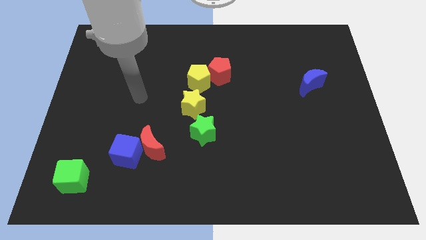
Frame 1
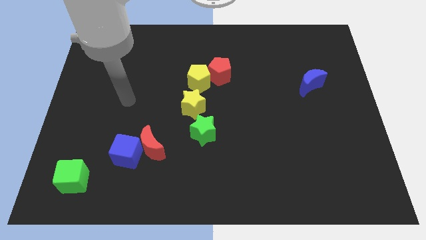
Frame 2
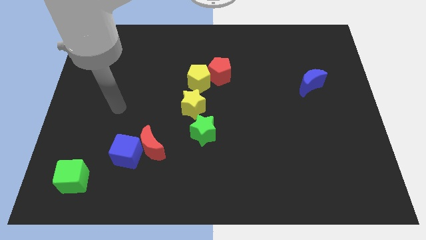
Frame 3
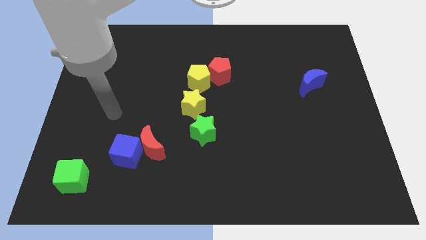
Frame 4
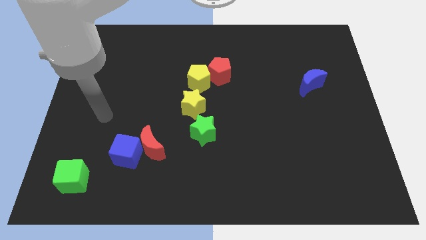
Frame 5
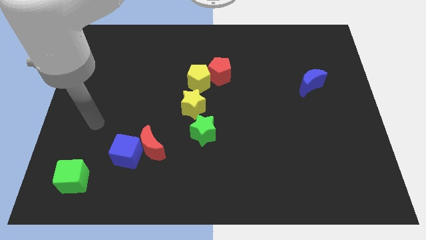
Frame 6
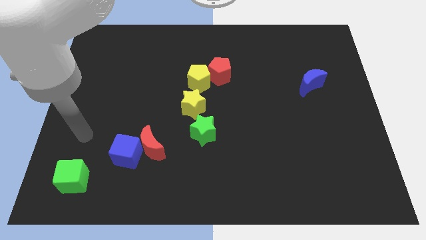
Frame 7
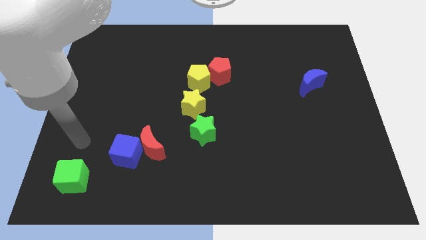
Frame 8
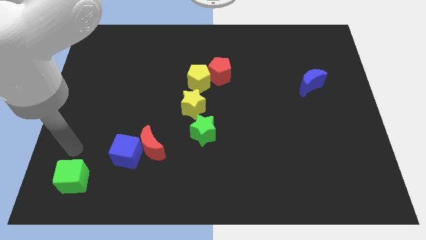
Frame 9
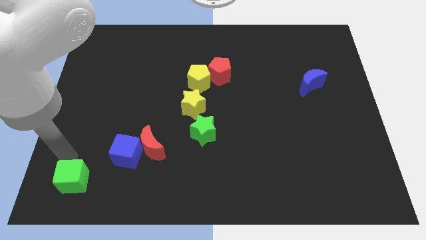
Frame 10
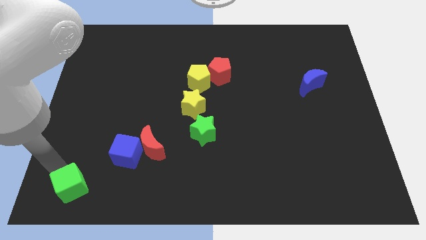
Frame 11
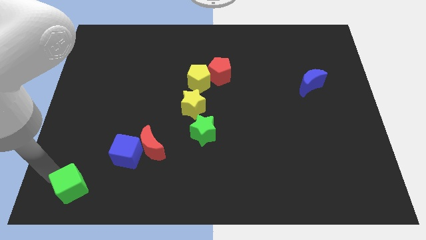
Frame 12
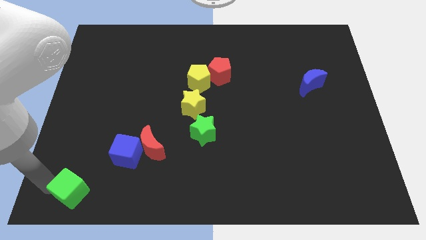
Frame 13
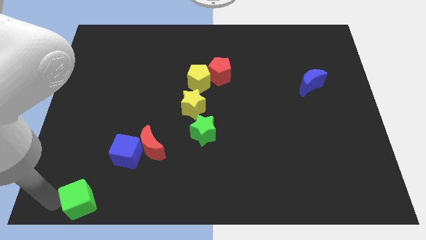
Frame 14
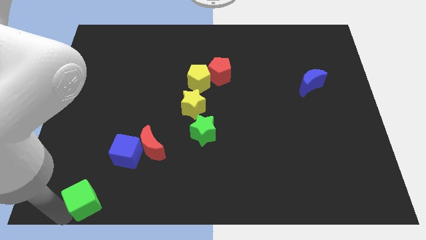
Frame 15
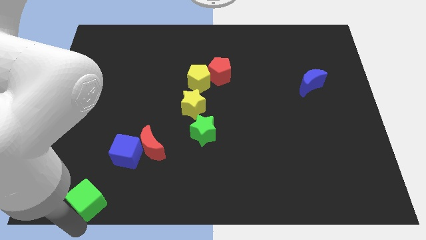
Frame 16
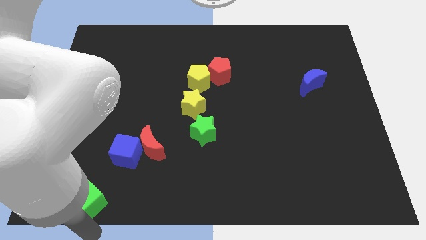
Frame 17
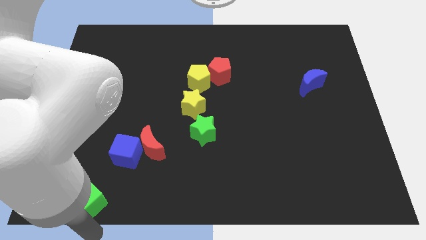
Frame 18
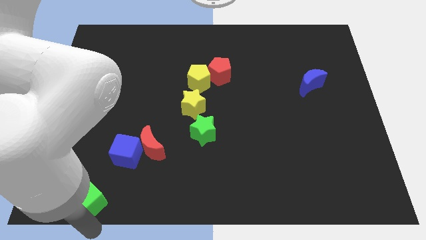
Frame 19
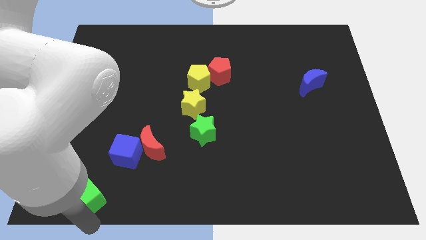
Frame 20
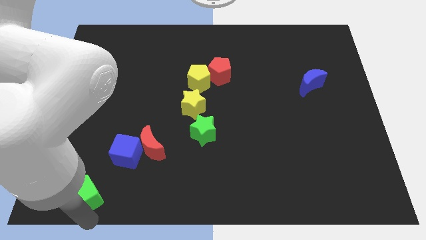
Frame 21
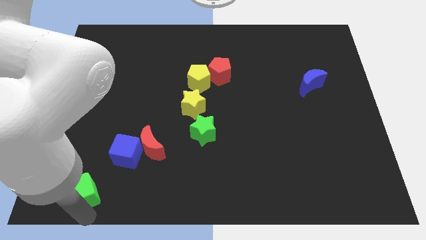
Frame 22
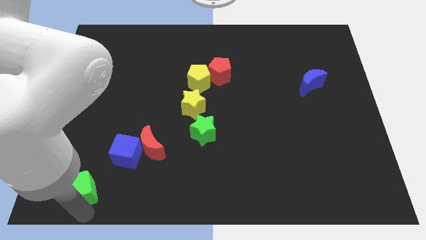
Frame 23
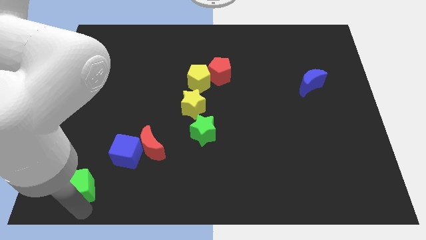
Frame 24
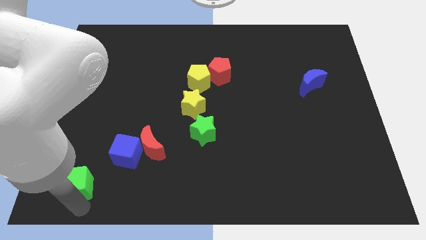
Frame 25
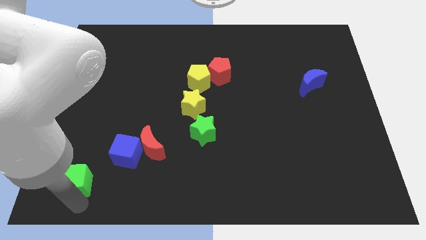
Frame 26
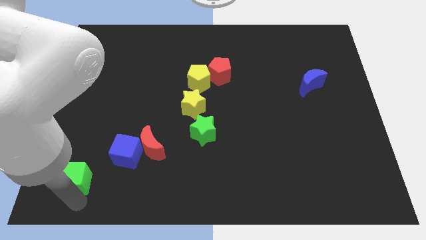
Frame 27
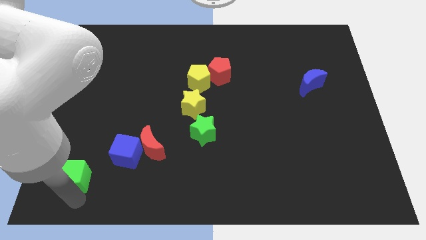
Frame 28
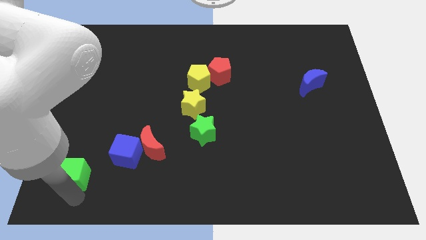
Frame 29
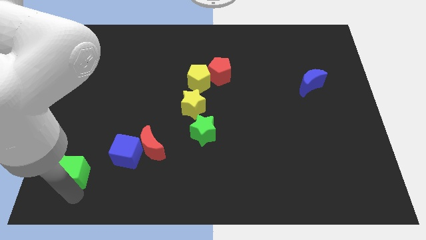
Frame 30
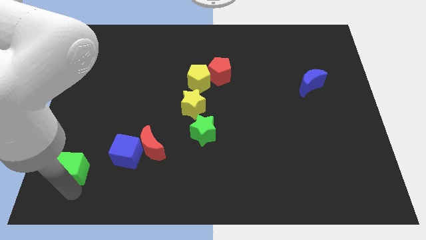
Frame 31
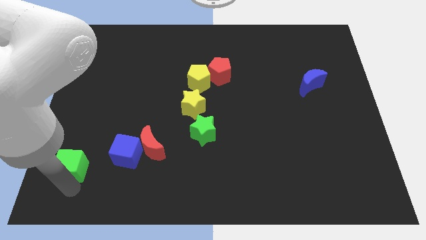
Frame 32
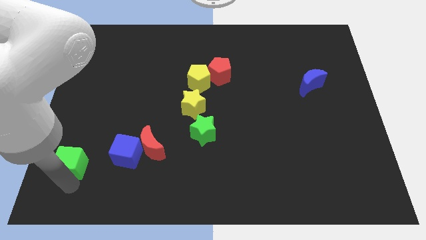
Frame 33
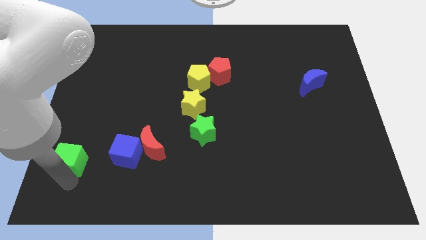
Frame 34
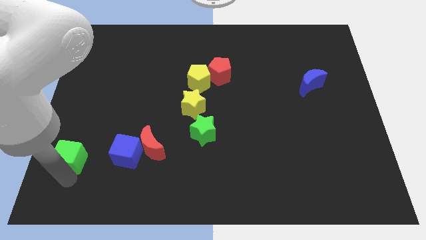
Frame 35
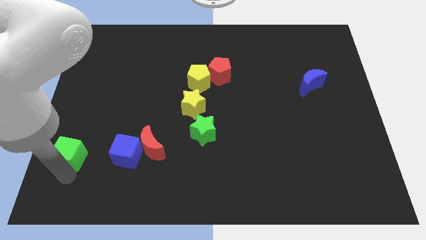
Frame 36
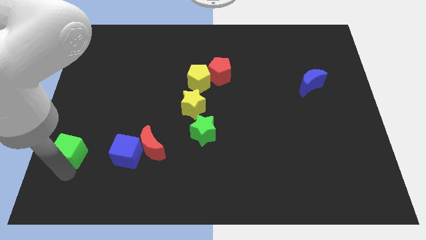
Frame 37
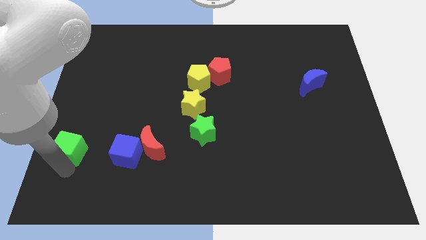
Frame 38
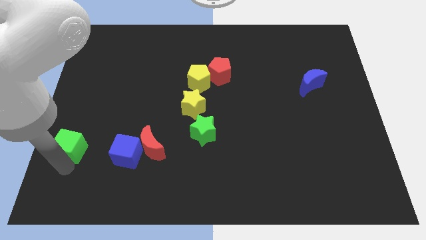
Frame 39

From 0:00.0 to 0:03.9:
slide the green cube upwards somewhat

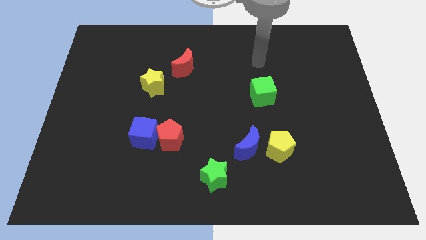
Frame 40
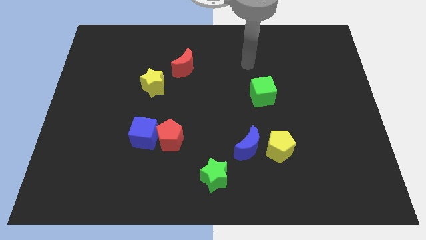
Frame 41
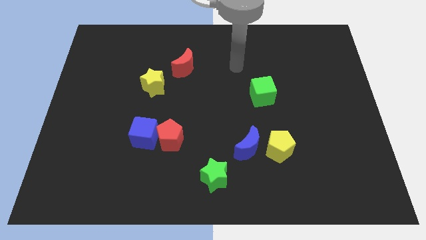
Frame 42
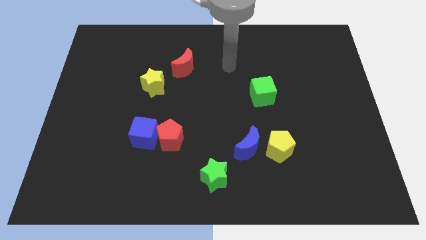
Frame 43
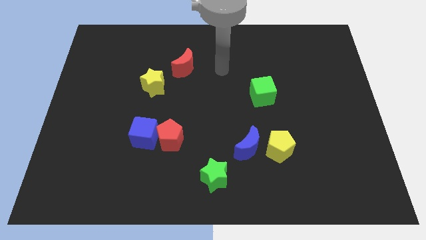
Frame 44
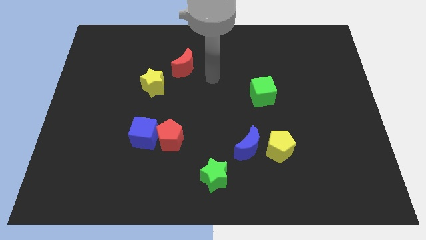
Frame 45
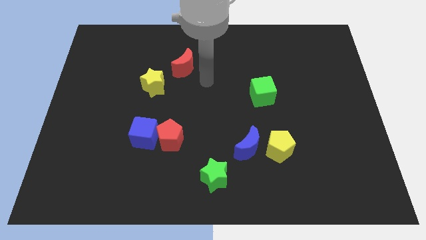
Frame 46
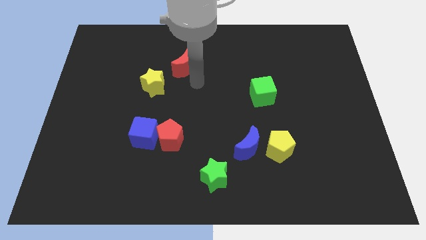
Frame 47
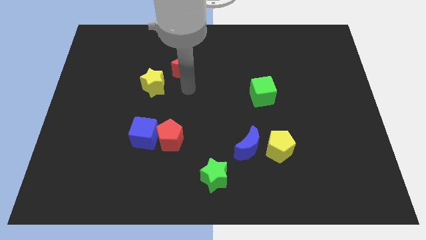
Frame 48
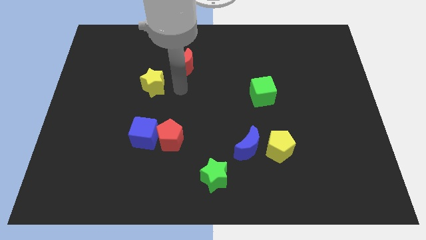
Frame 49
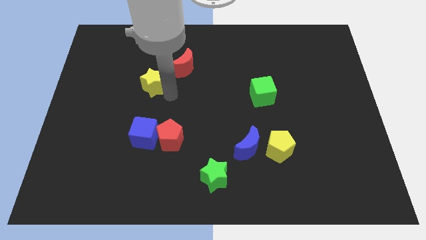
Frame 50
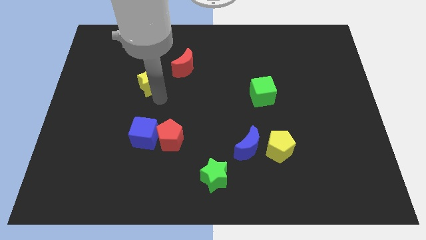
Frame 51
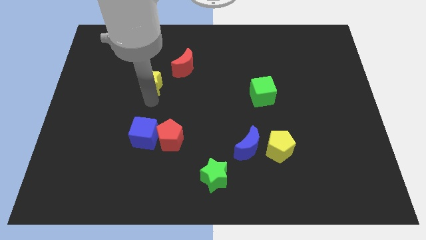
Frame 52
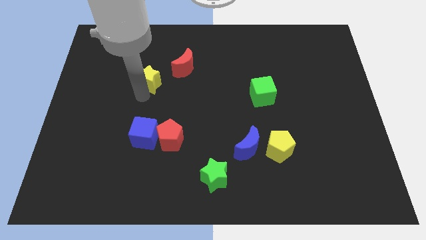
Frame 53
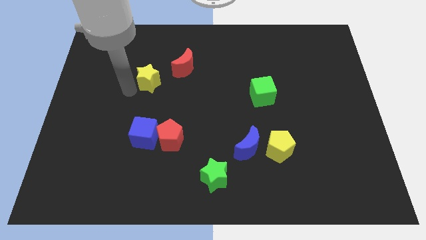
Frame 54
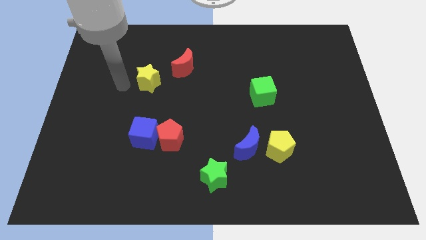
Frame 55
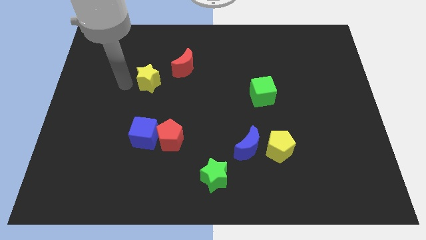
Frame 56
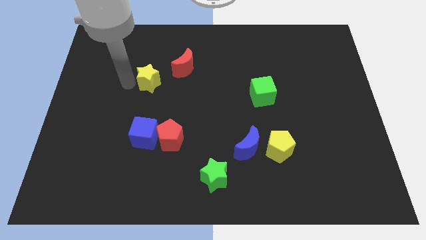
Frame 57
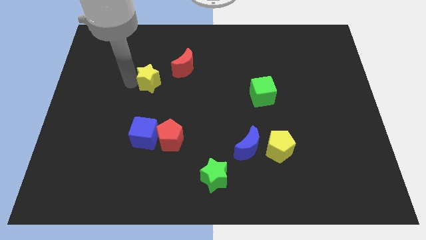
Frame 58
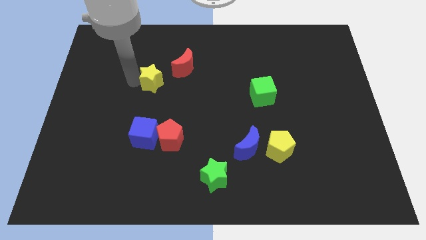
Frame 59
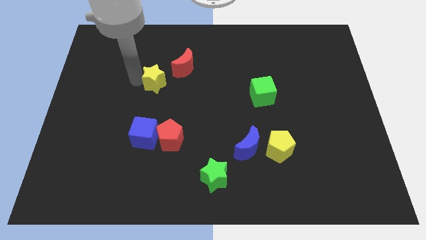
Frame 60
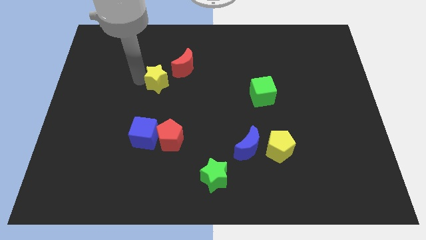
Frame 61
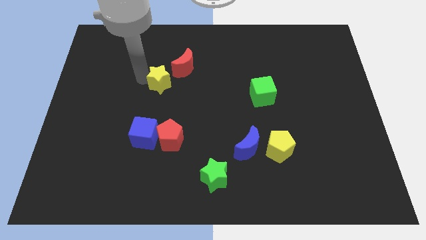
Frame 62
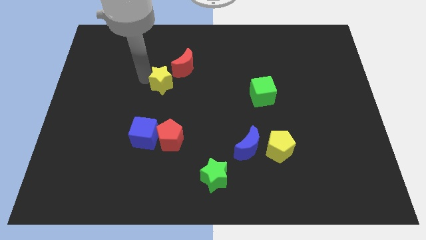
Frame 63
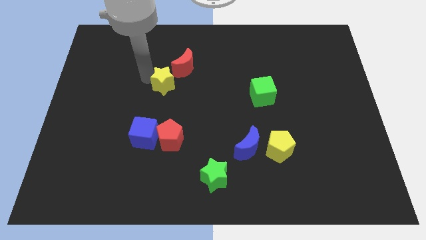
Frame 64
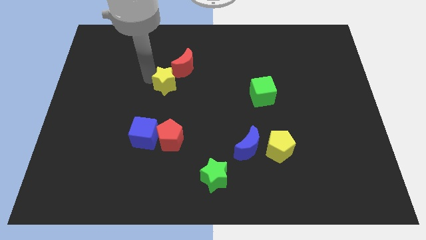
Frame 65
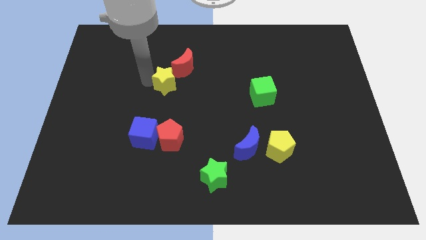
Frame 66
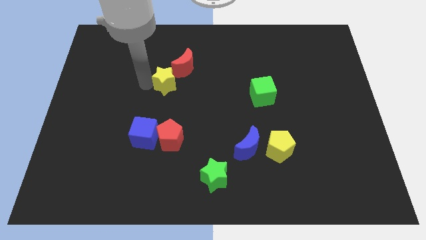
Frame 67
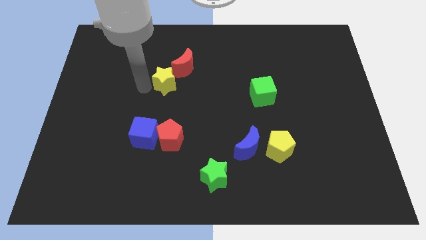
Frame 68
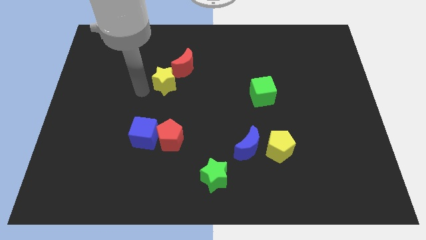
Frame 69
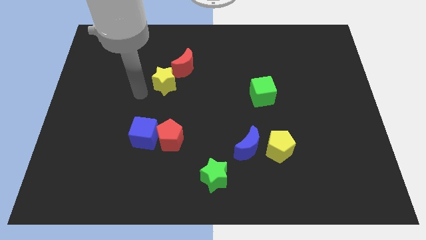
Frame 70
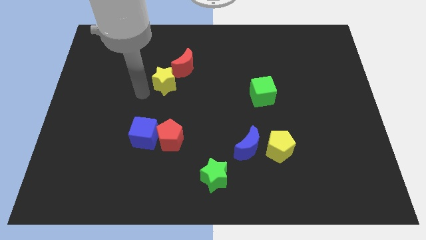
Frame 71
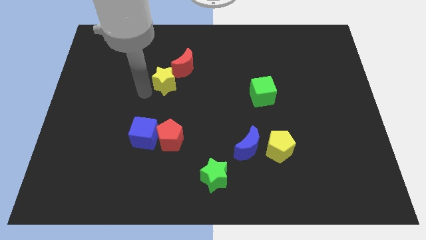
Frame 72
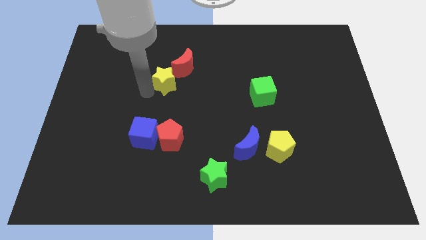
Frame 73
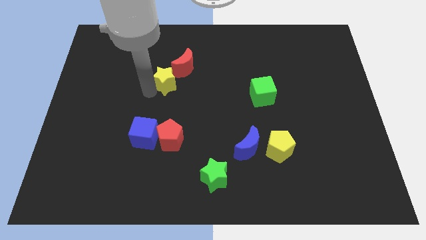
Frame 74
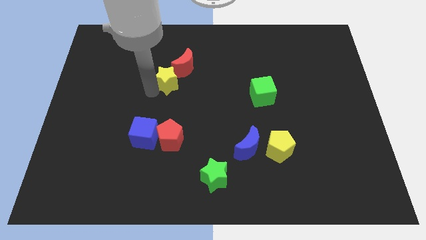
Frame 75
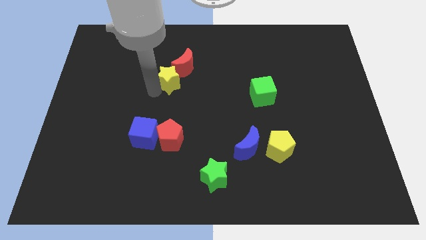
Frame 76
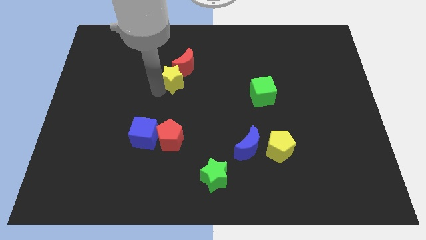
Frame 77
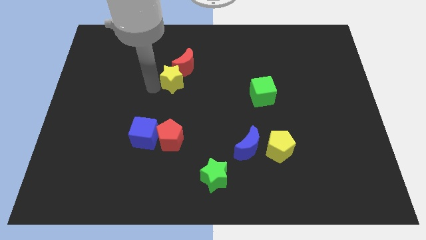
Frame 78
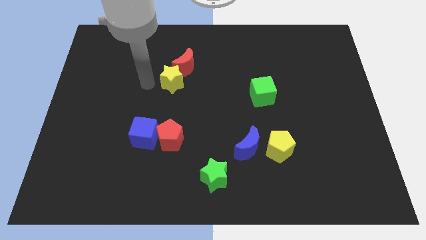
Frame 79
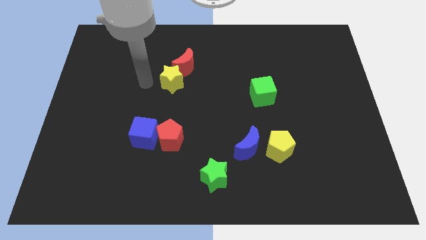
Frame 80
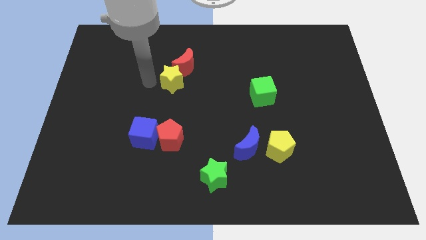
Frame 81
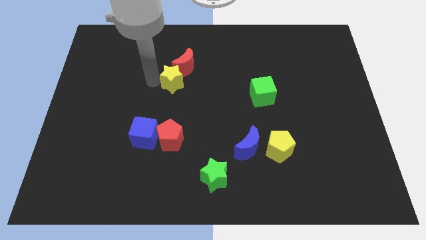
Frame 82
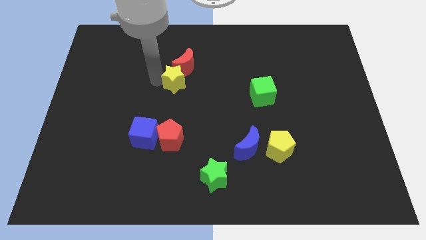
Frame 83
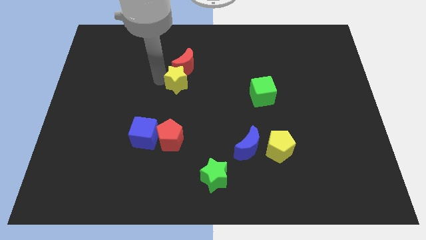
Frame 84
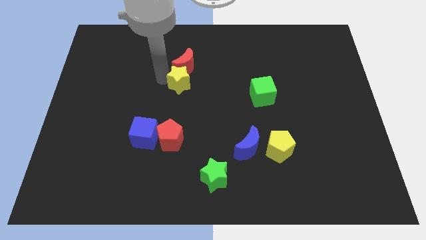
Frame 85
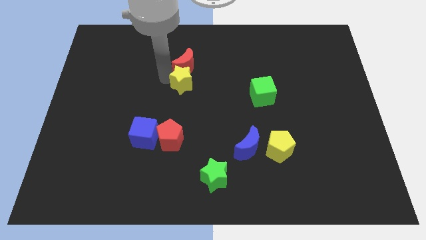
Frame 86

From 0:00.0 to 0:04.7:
slightly push the yellow star right

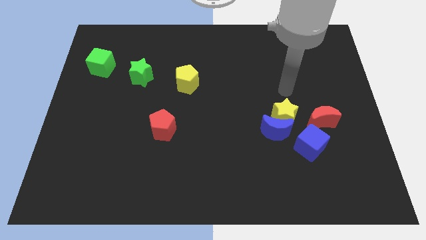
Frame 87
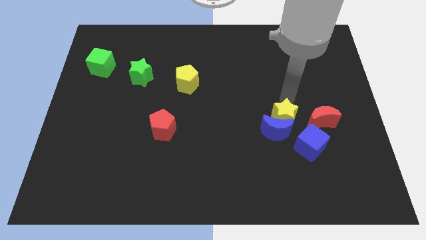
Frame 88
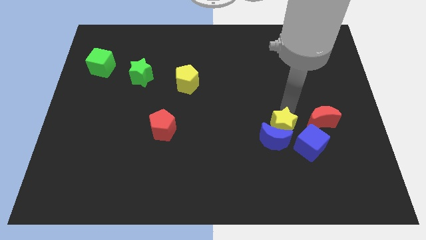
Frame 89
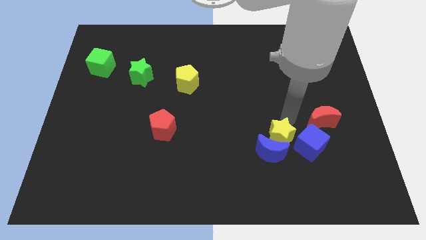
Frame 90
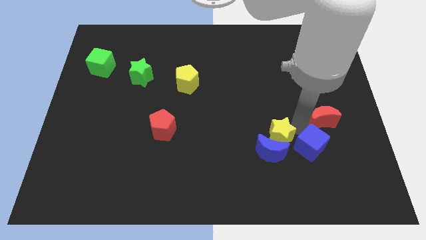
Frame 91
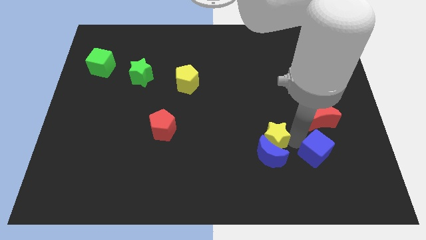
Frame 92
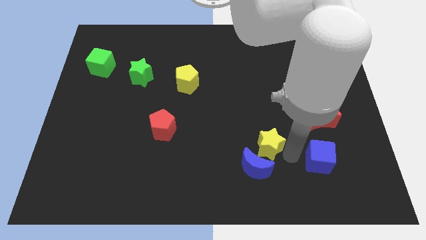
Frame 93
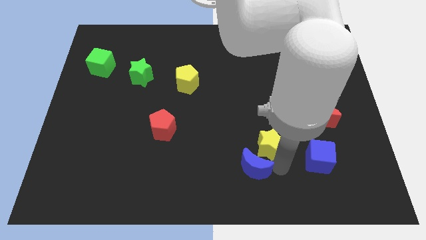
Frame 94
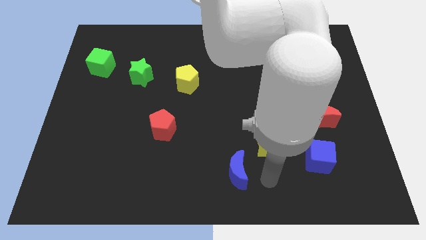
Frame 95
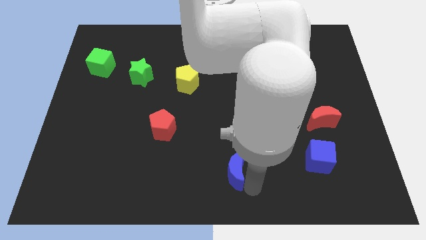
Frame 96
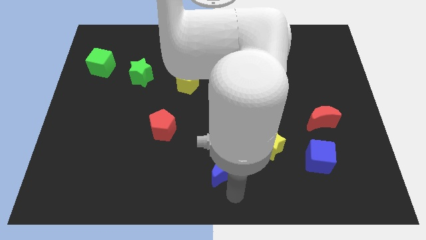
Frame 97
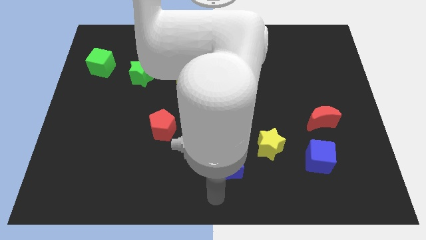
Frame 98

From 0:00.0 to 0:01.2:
push the blue moon a bit left
